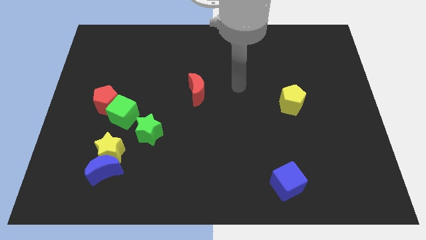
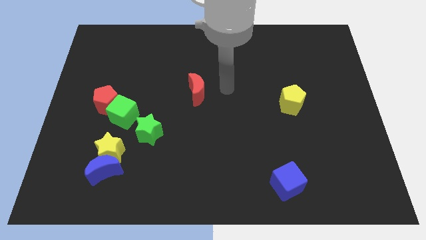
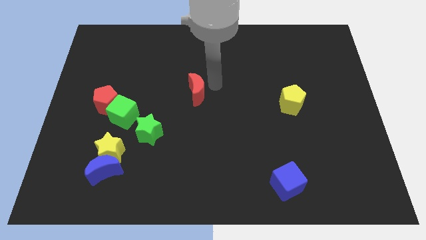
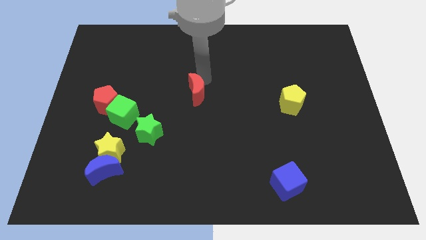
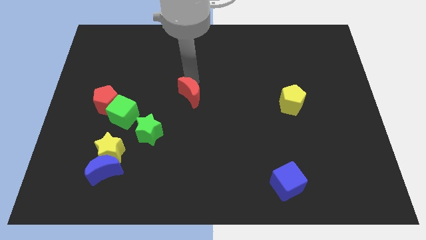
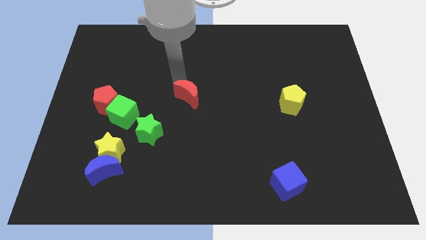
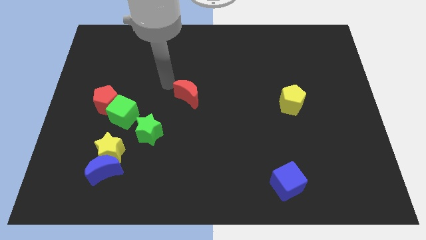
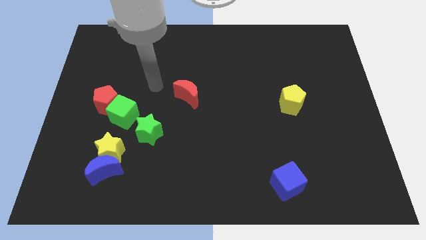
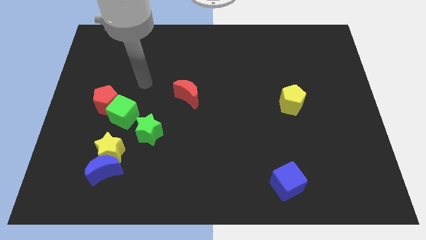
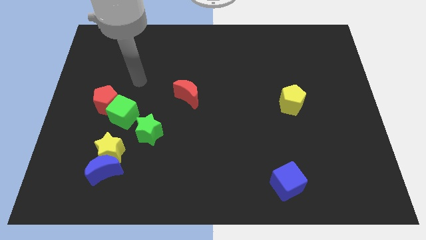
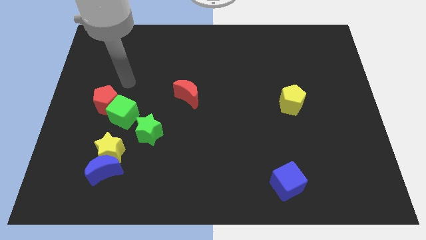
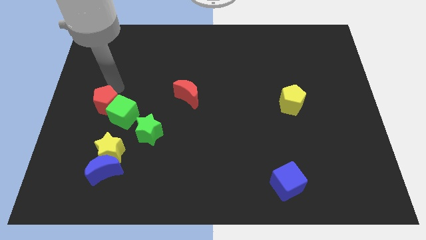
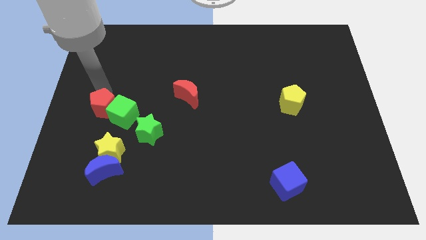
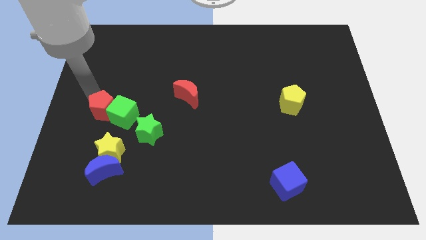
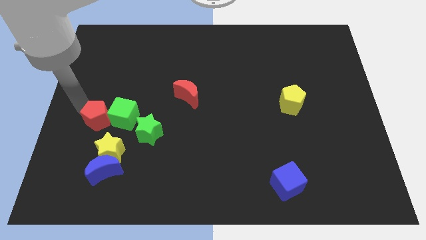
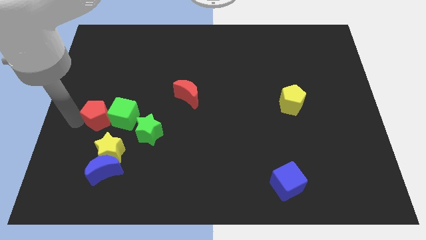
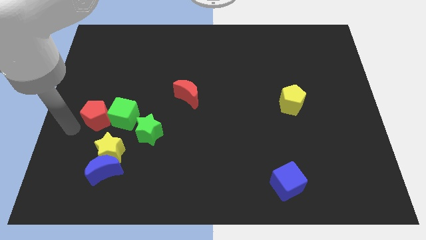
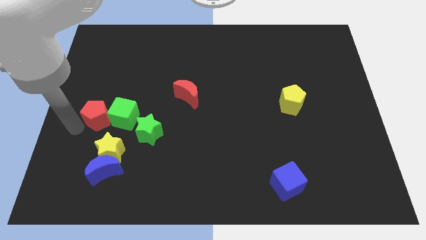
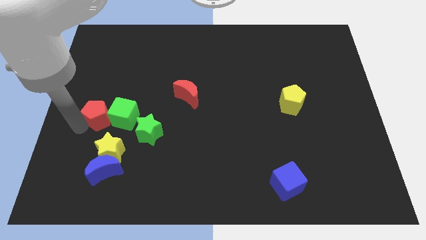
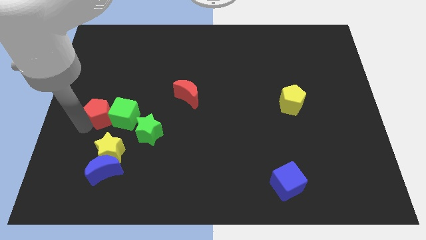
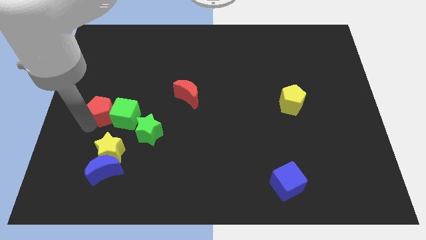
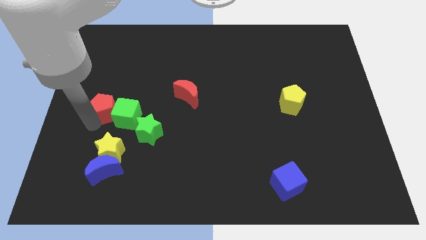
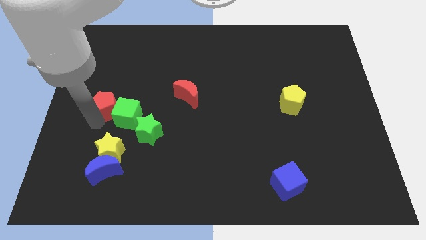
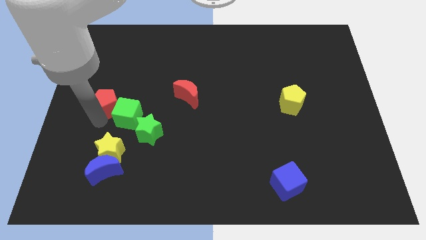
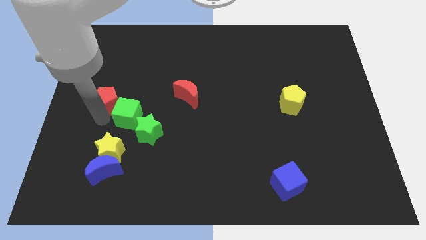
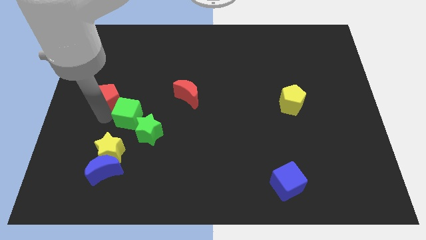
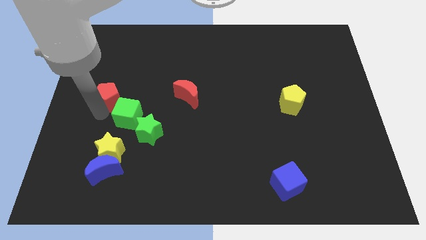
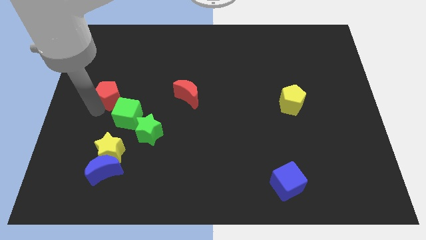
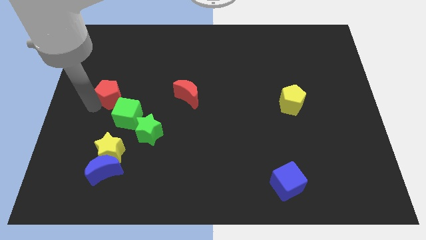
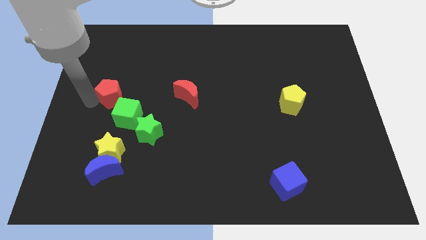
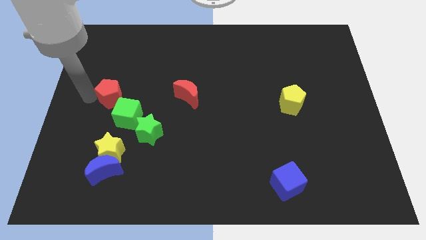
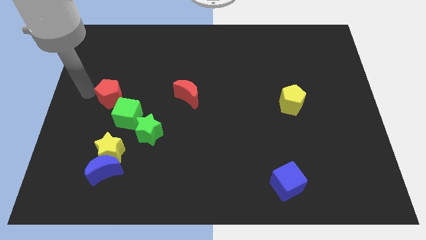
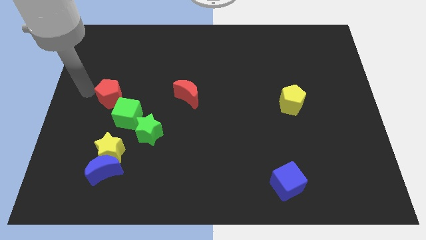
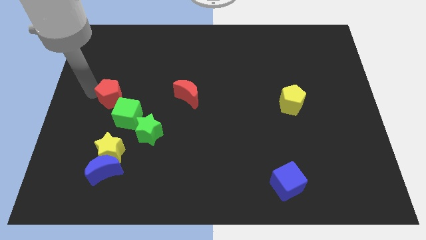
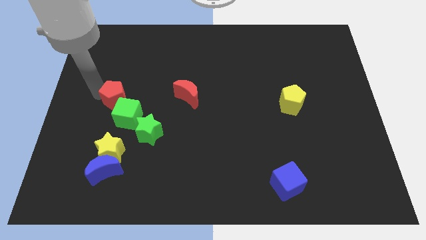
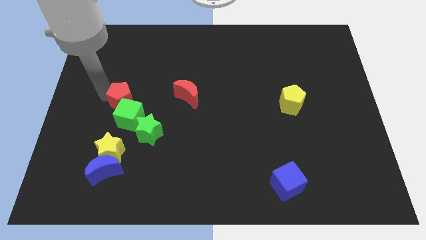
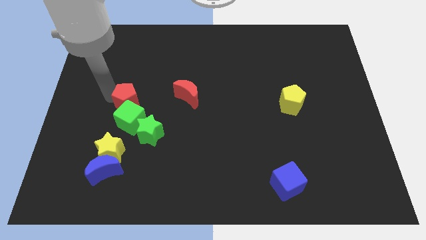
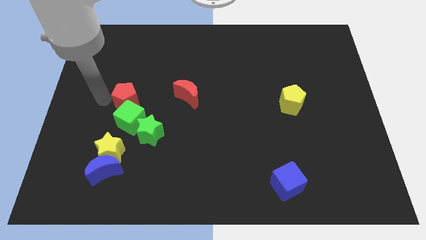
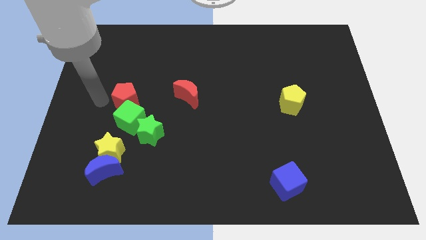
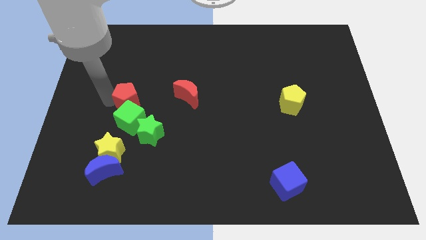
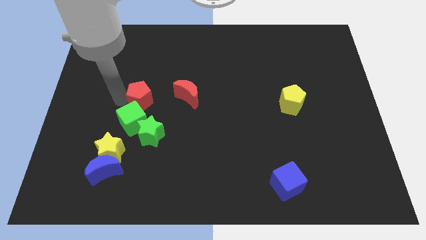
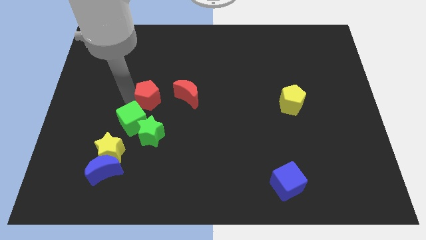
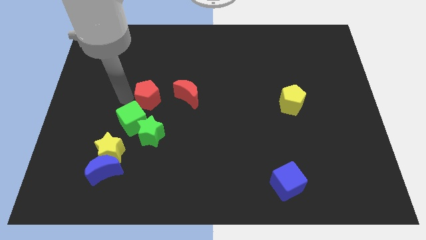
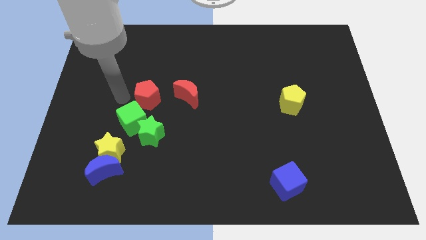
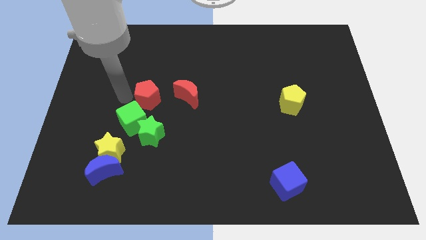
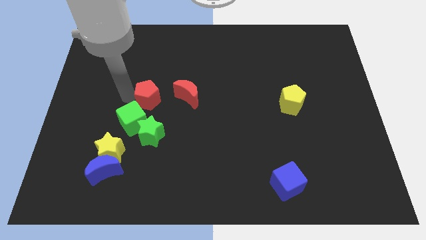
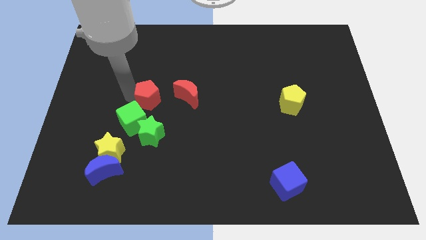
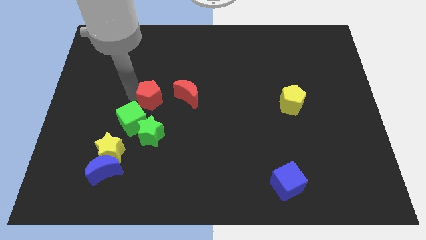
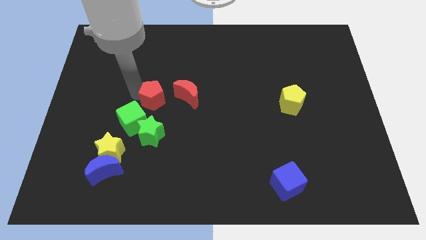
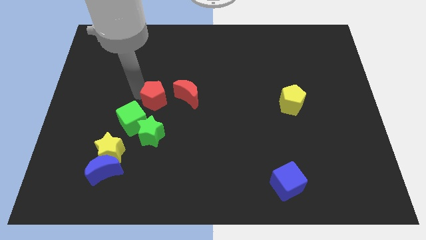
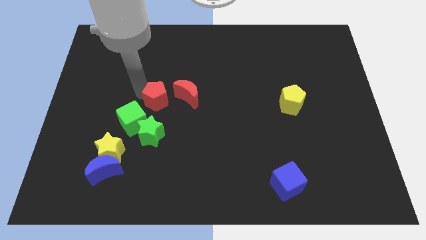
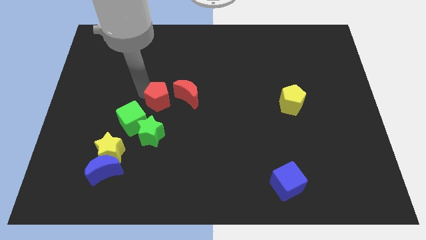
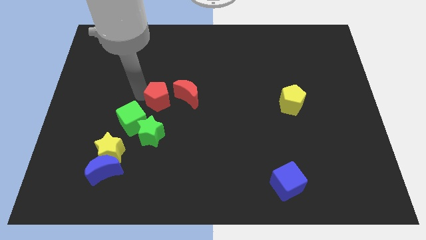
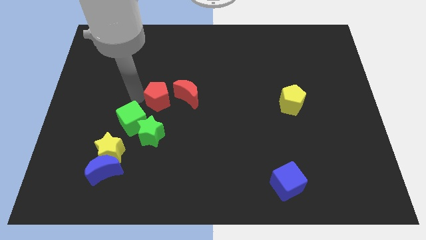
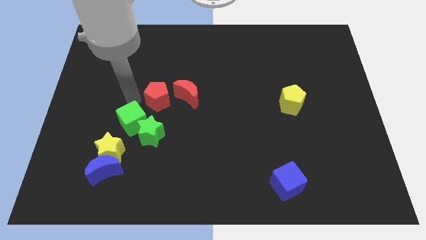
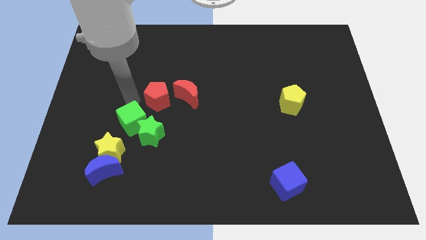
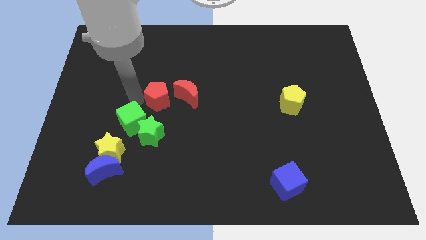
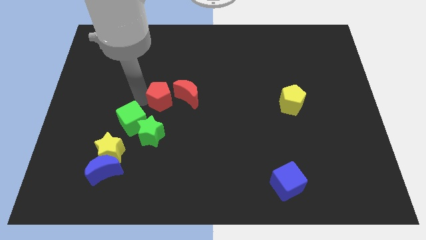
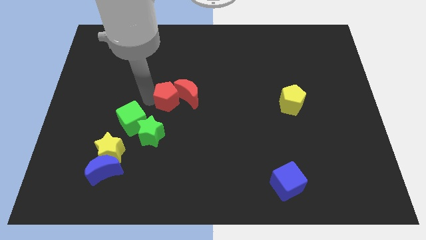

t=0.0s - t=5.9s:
put the red pentagon to the red moon

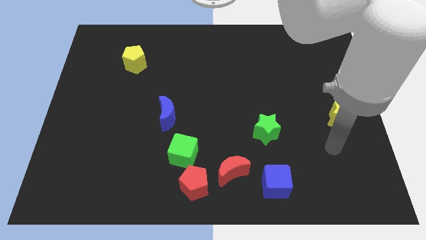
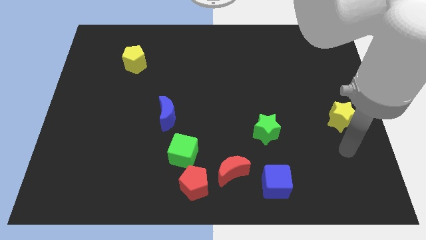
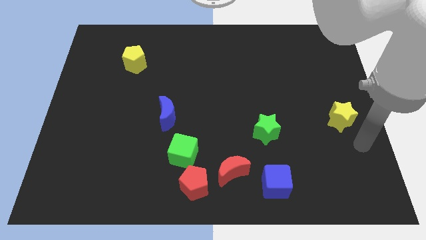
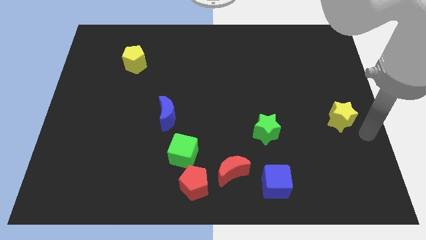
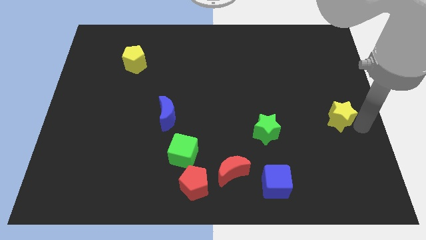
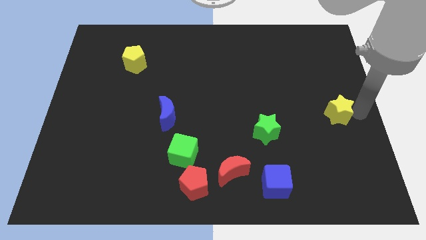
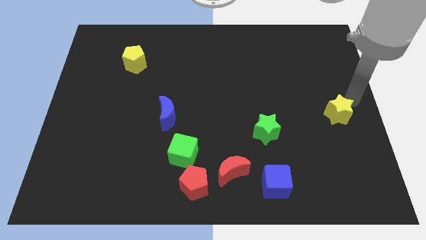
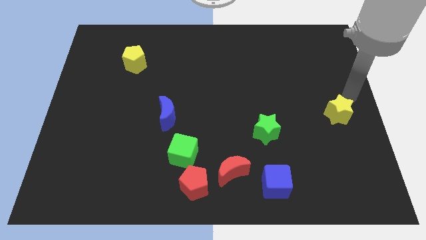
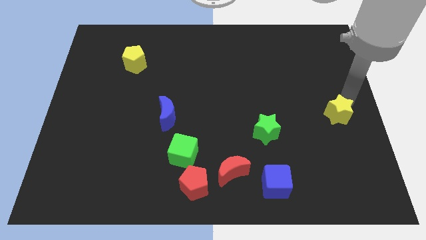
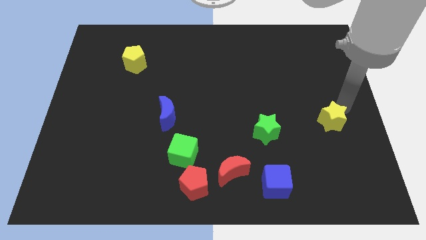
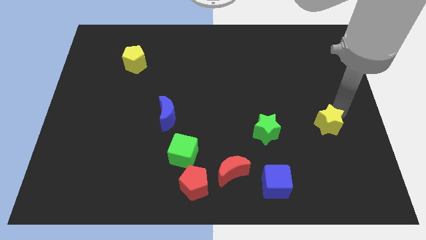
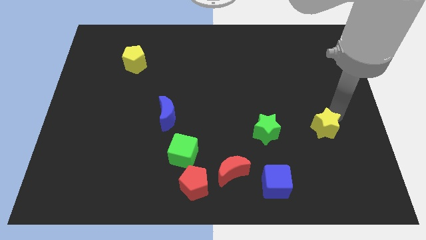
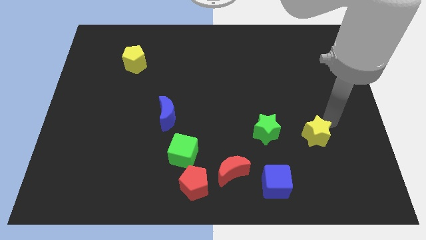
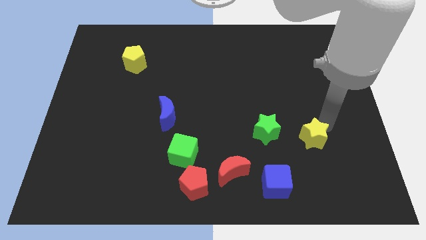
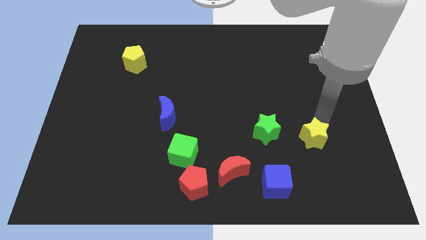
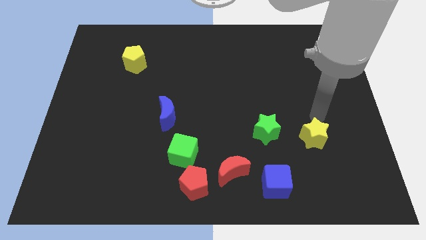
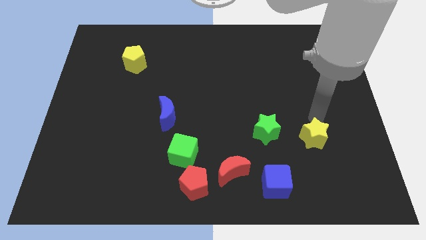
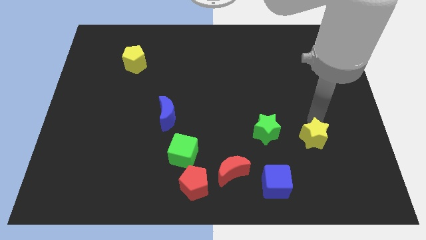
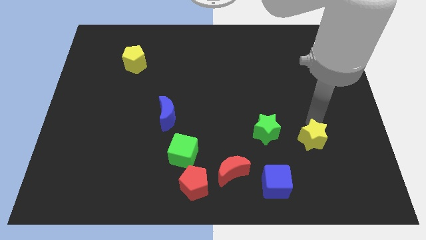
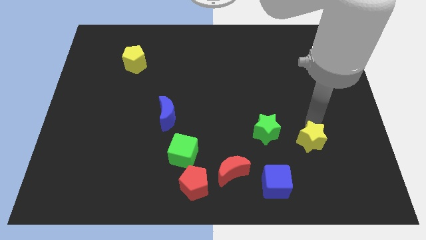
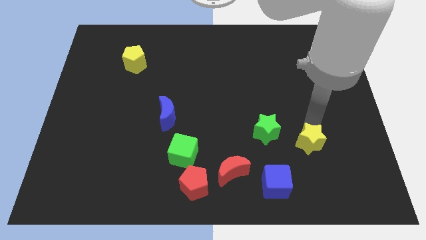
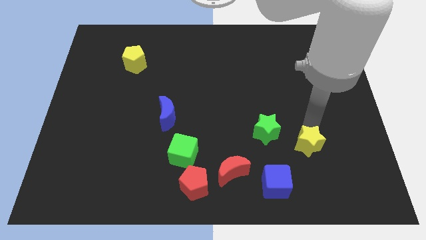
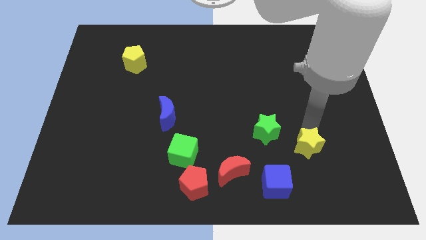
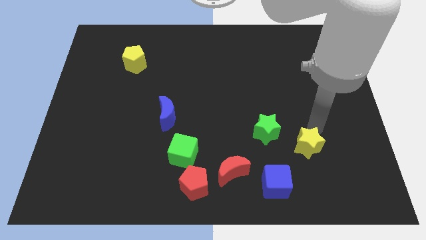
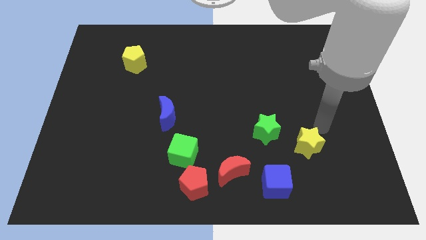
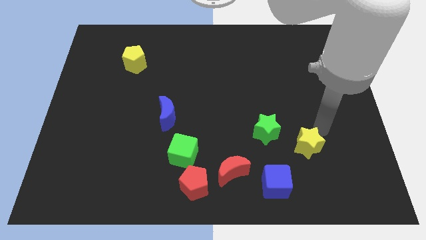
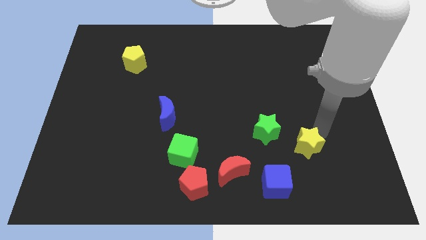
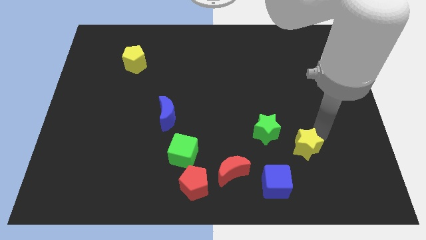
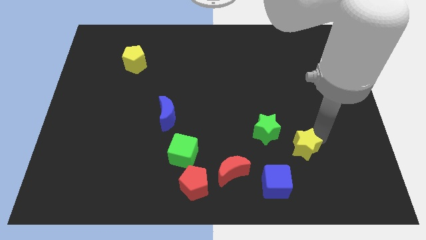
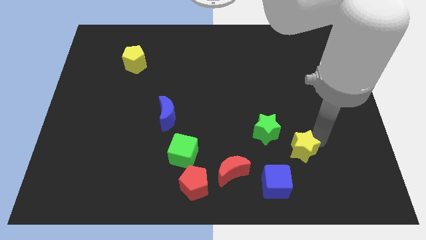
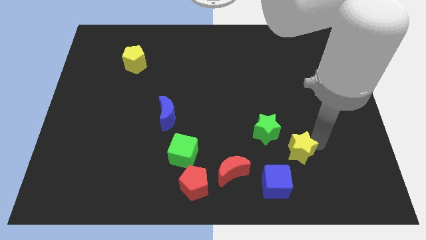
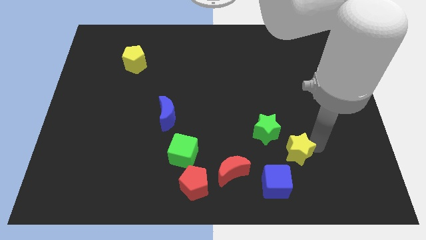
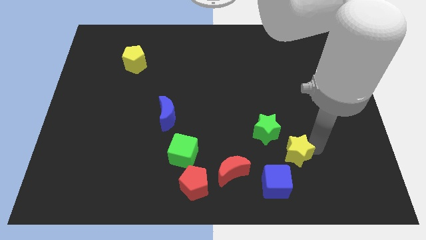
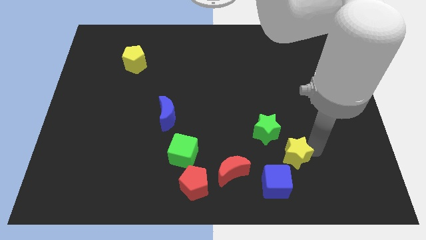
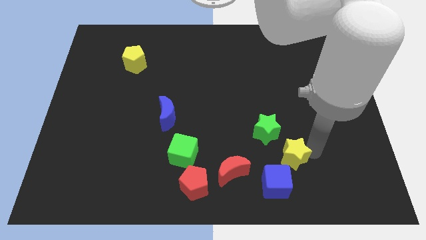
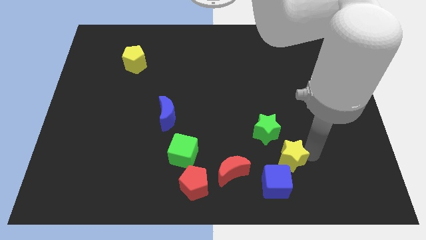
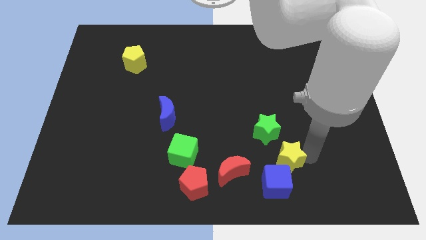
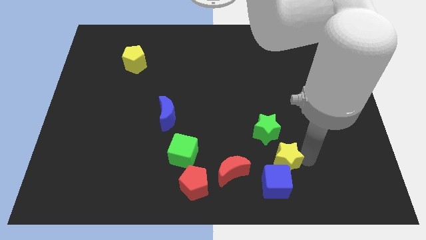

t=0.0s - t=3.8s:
push the yellow star towards the blue cube
